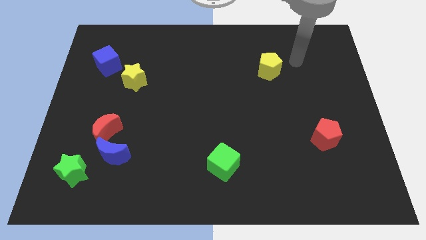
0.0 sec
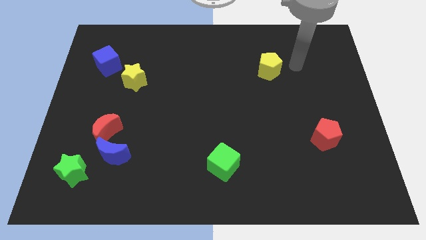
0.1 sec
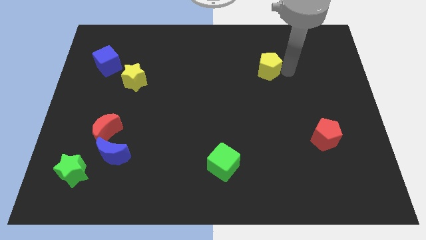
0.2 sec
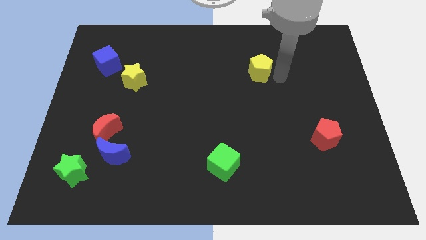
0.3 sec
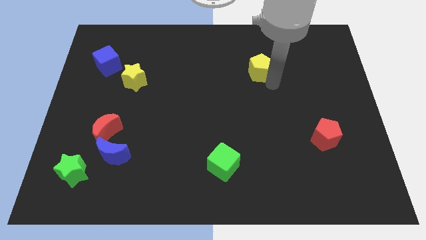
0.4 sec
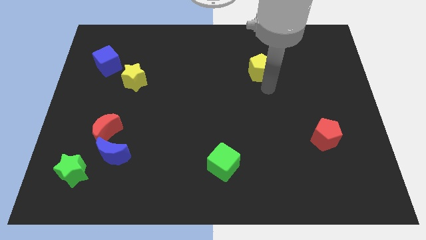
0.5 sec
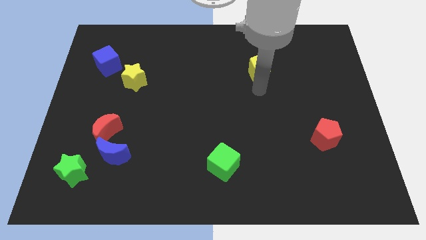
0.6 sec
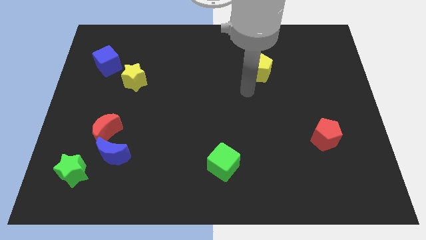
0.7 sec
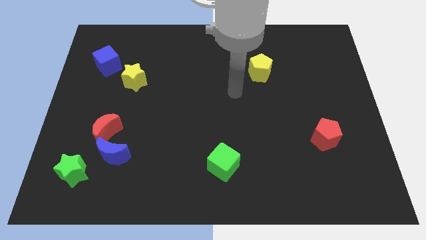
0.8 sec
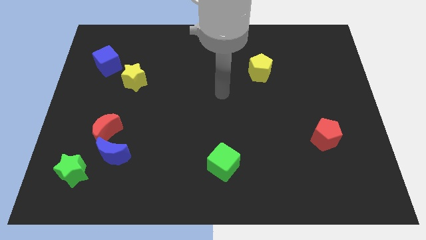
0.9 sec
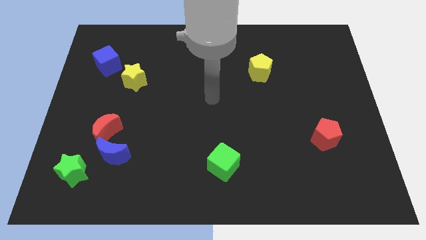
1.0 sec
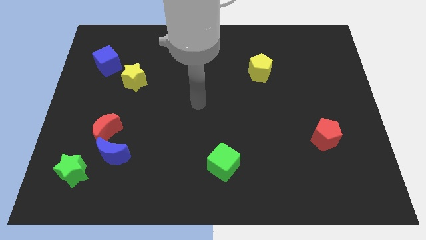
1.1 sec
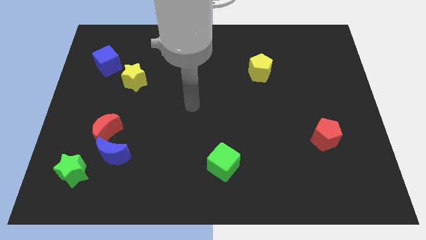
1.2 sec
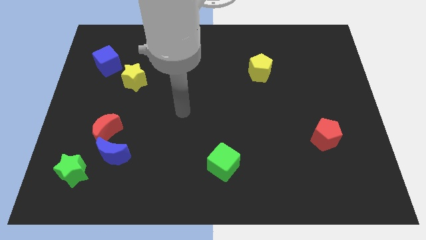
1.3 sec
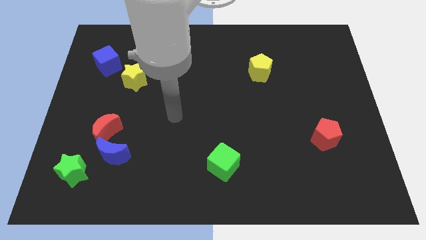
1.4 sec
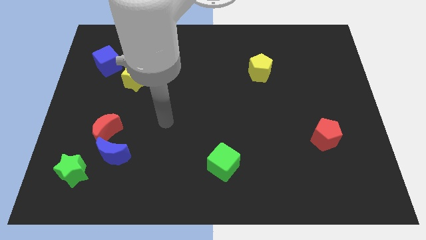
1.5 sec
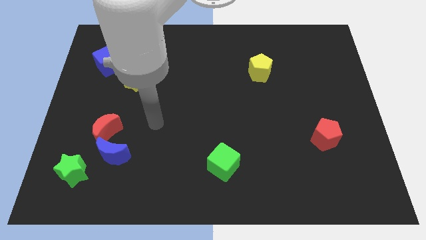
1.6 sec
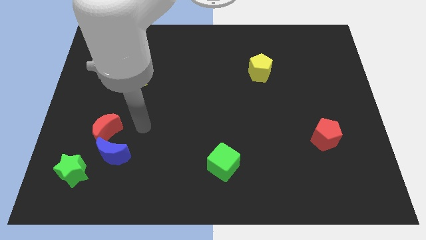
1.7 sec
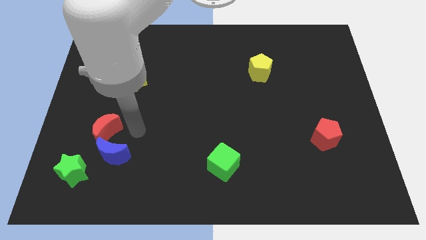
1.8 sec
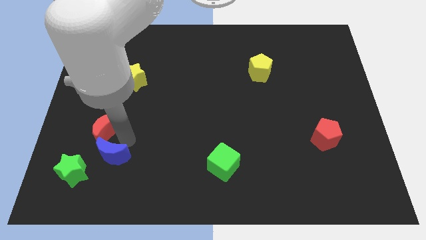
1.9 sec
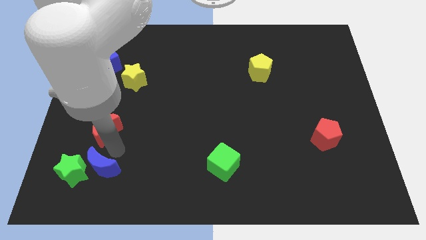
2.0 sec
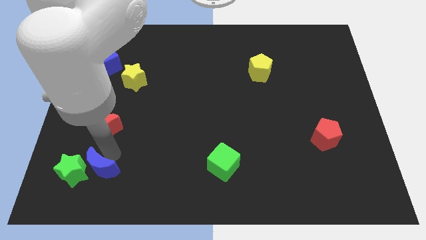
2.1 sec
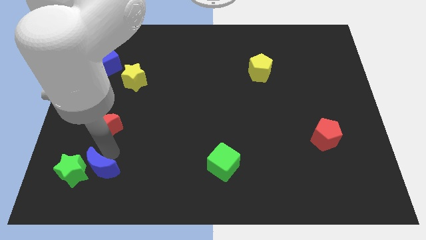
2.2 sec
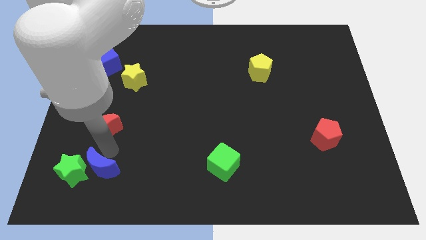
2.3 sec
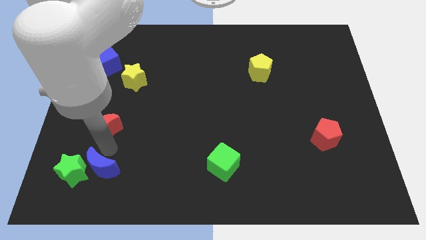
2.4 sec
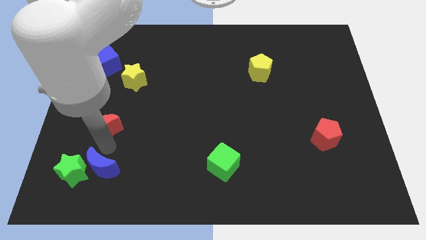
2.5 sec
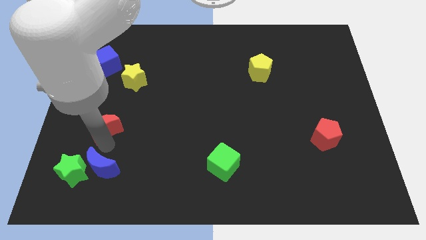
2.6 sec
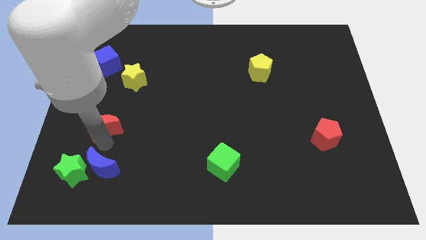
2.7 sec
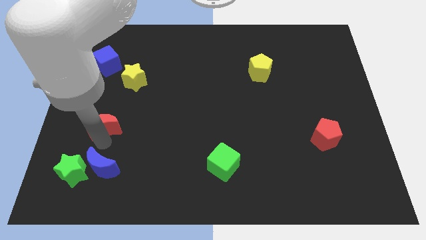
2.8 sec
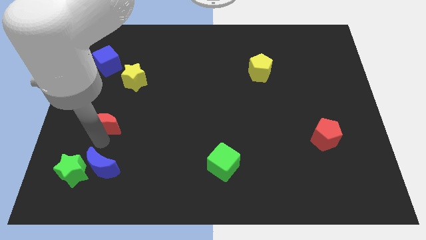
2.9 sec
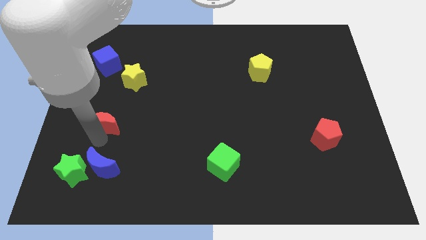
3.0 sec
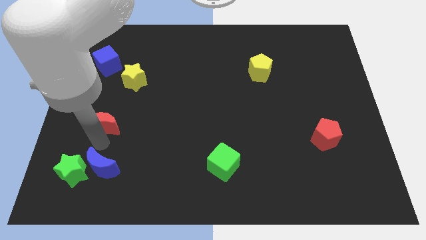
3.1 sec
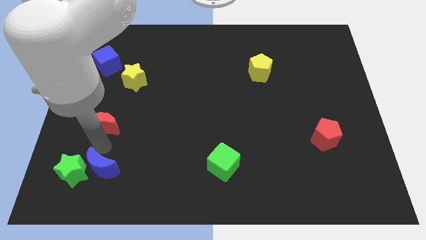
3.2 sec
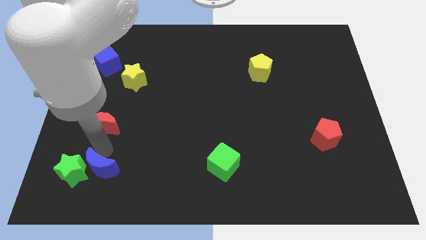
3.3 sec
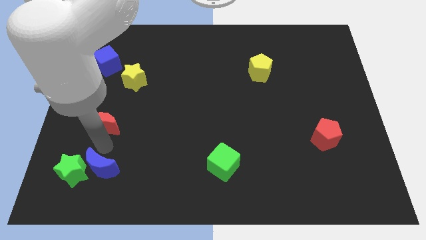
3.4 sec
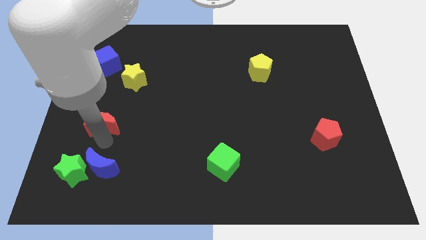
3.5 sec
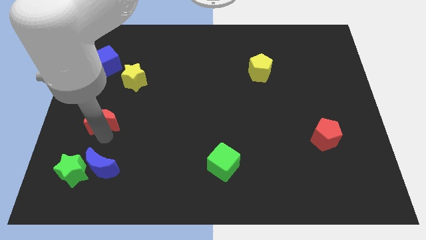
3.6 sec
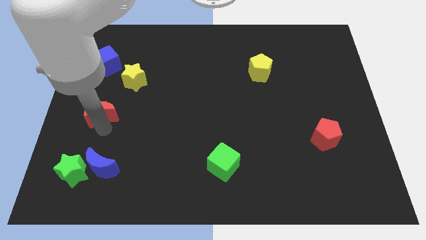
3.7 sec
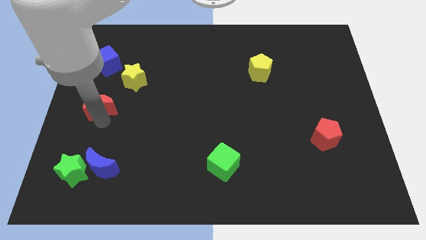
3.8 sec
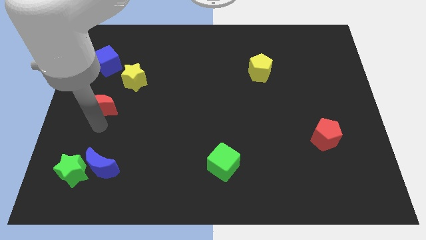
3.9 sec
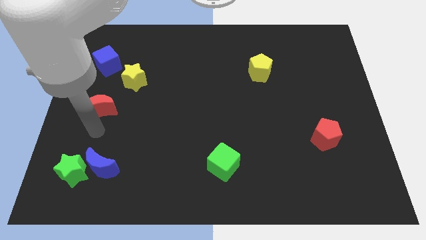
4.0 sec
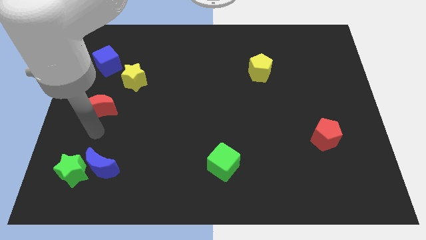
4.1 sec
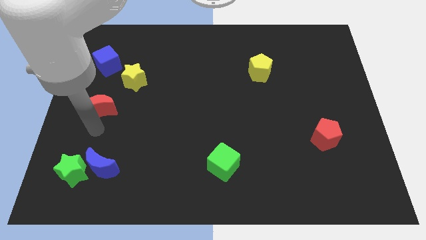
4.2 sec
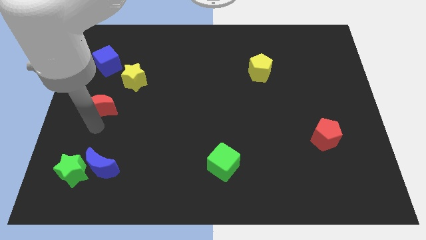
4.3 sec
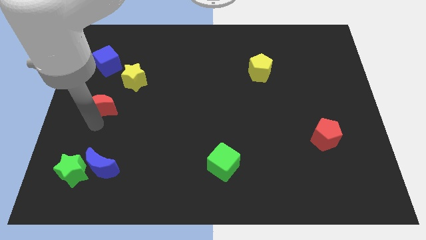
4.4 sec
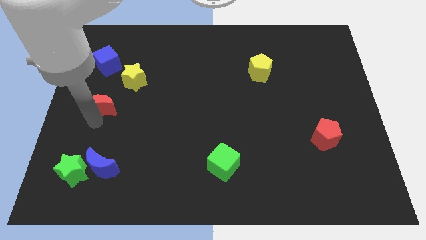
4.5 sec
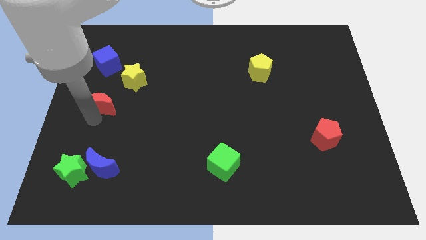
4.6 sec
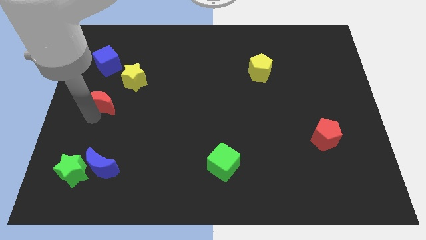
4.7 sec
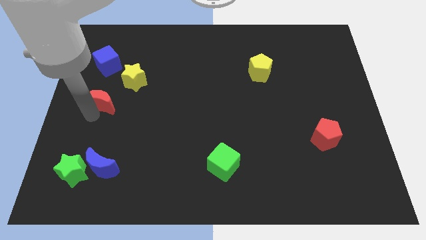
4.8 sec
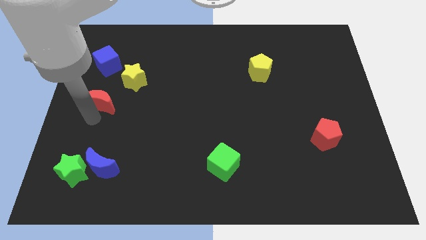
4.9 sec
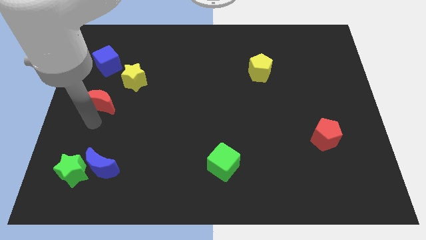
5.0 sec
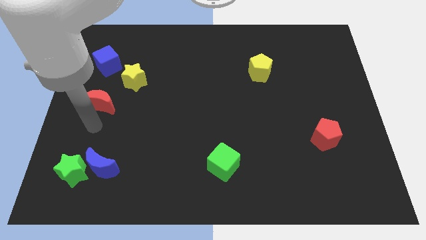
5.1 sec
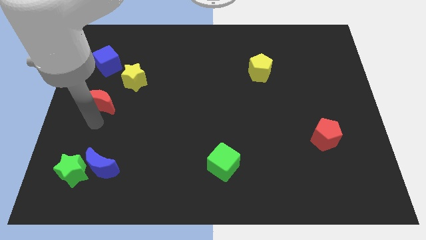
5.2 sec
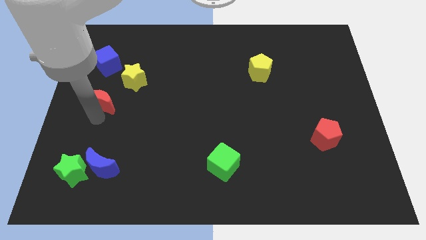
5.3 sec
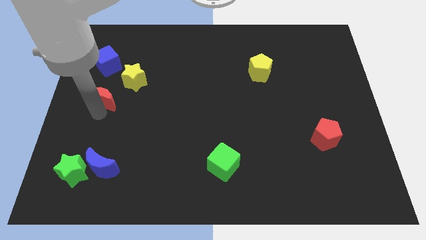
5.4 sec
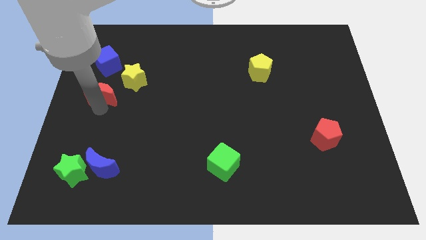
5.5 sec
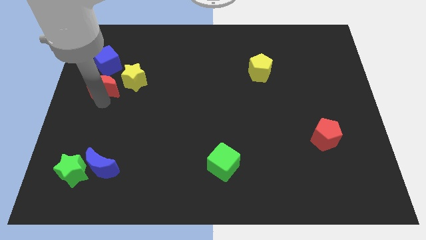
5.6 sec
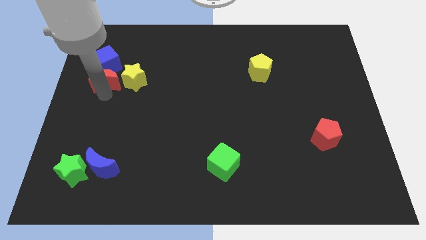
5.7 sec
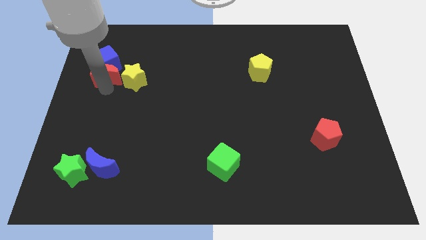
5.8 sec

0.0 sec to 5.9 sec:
put the red moon to the blue cube

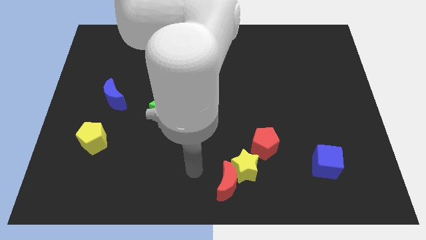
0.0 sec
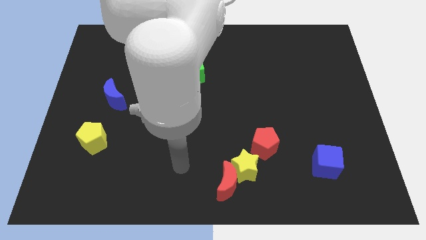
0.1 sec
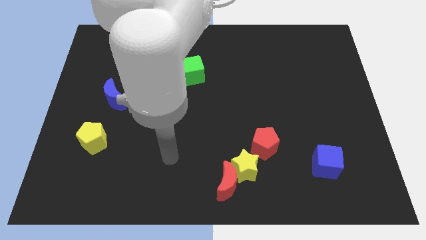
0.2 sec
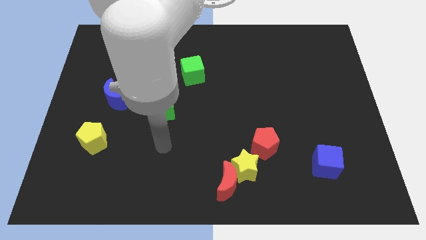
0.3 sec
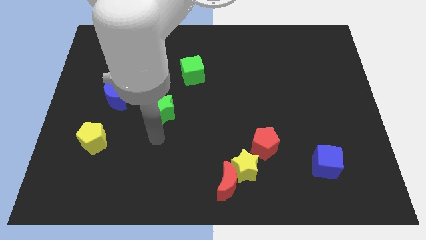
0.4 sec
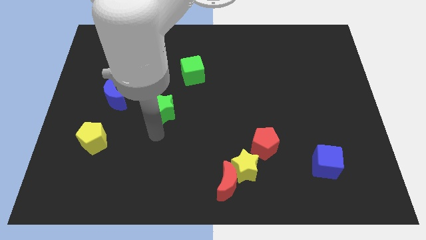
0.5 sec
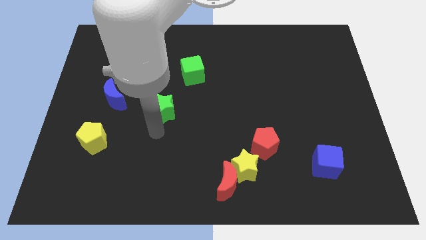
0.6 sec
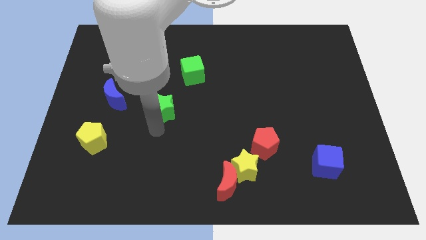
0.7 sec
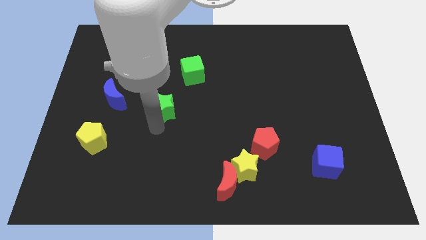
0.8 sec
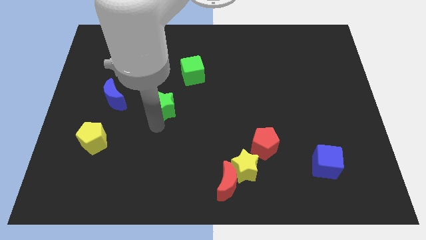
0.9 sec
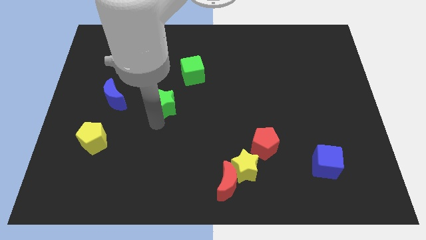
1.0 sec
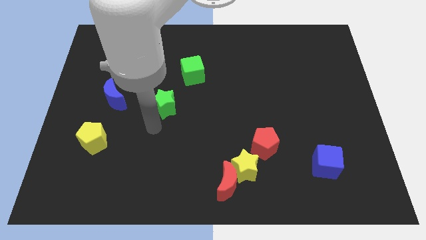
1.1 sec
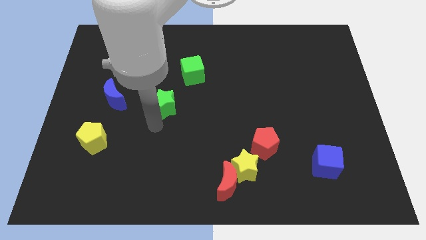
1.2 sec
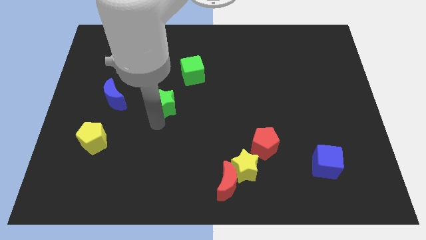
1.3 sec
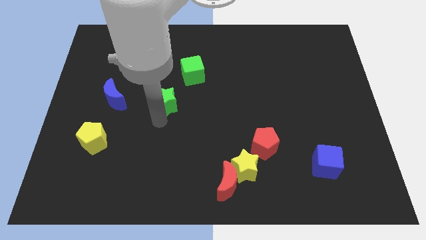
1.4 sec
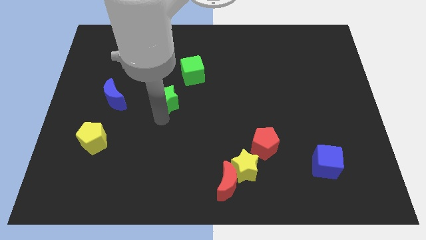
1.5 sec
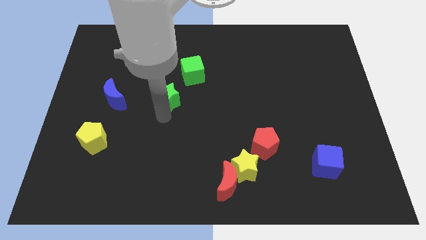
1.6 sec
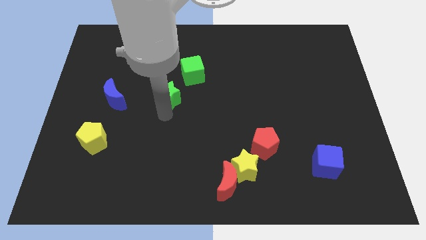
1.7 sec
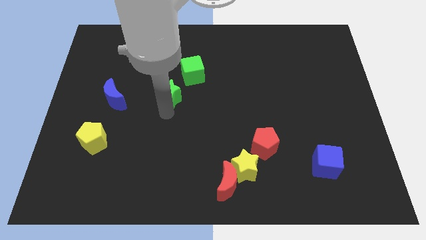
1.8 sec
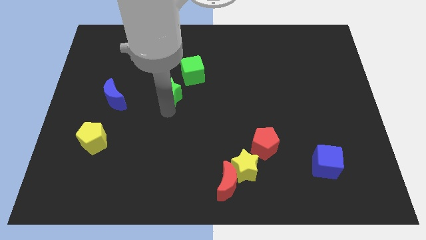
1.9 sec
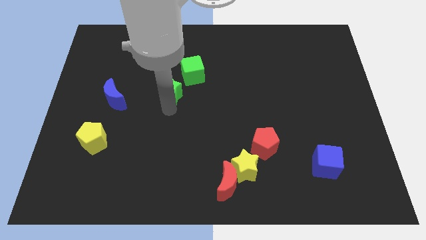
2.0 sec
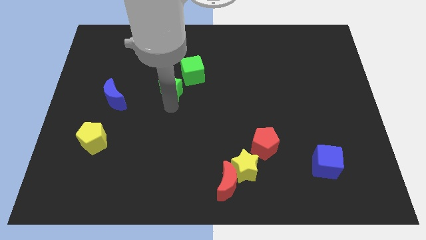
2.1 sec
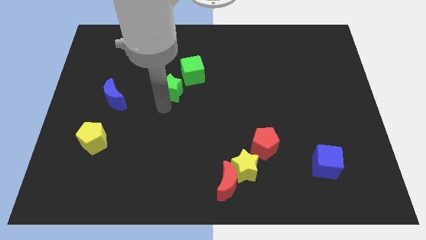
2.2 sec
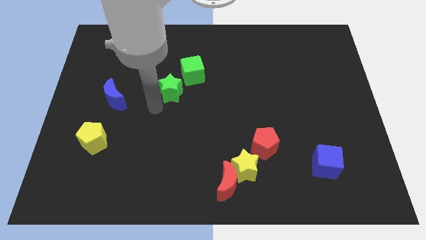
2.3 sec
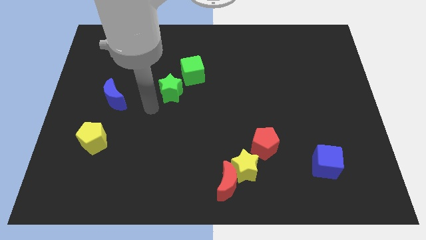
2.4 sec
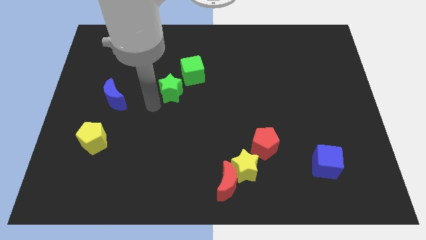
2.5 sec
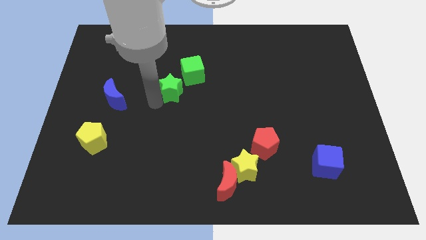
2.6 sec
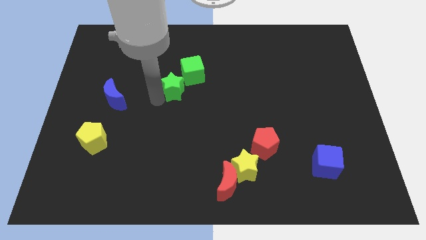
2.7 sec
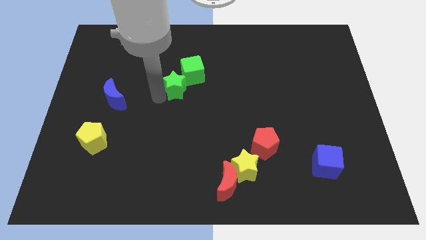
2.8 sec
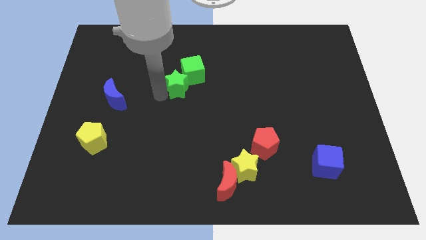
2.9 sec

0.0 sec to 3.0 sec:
push the green star next to the green cube
